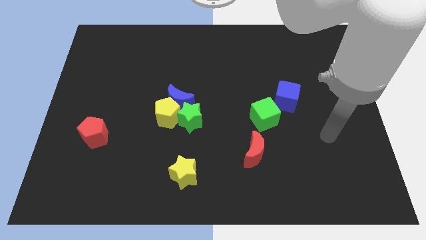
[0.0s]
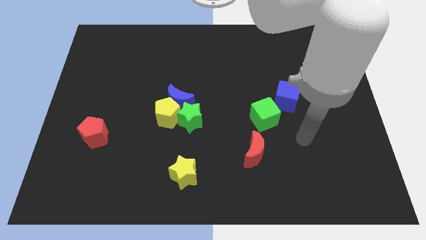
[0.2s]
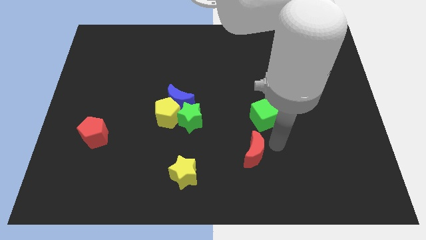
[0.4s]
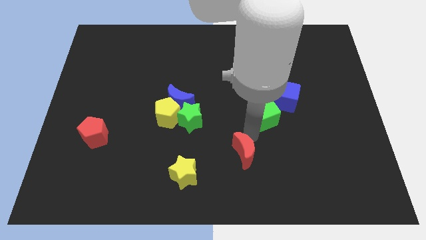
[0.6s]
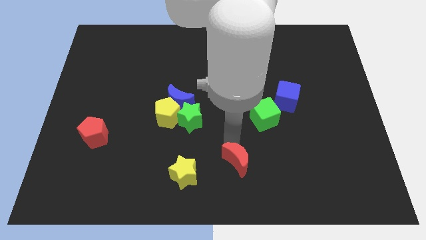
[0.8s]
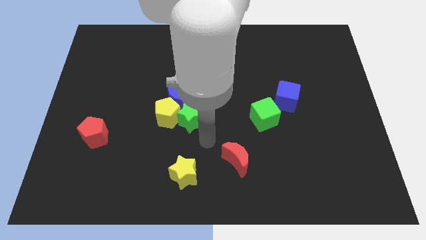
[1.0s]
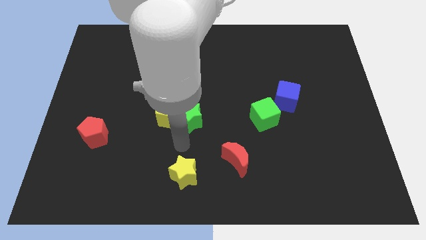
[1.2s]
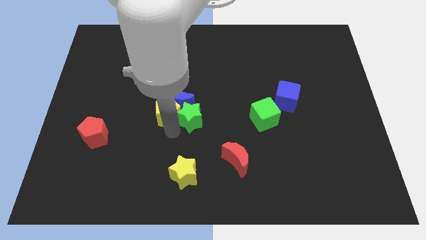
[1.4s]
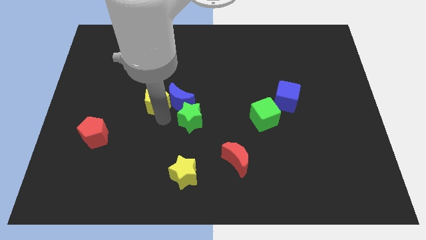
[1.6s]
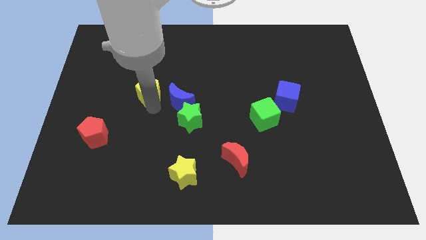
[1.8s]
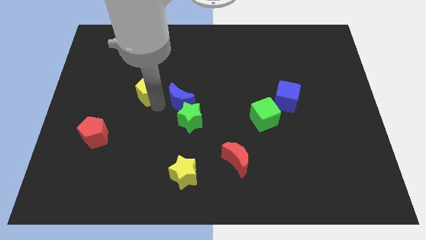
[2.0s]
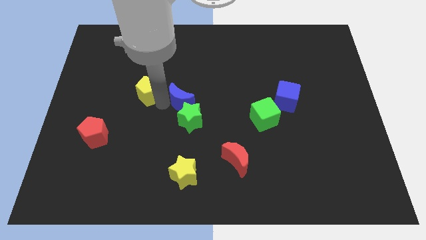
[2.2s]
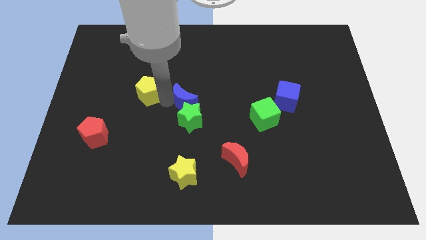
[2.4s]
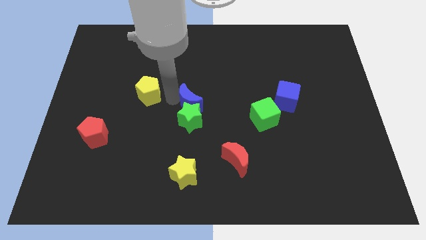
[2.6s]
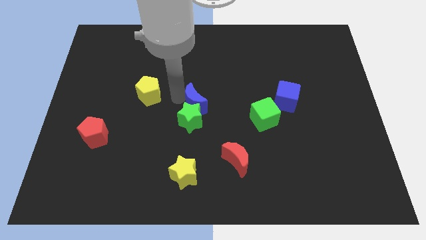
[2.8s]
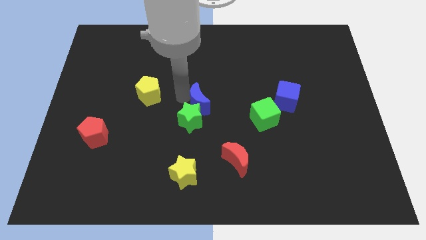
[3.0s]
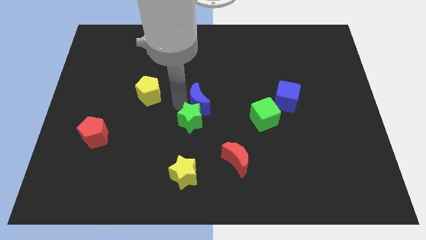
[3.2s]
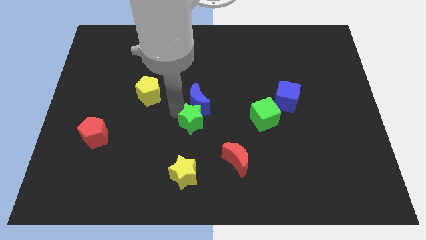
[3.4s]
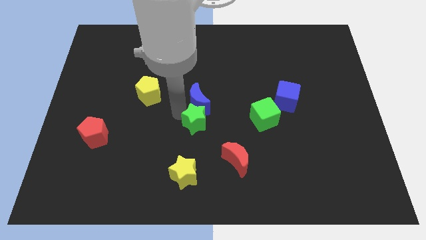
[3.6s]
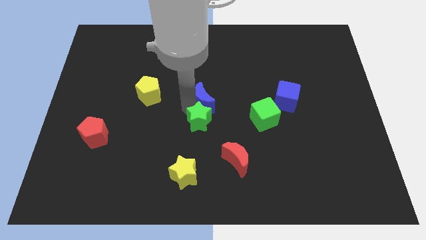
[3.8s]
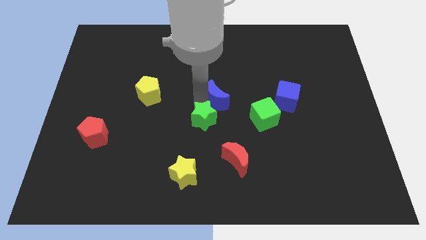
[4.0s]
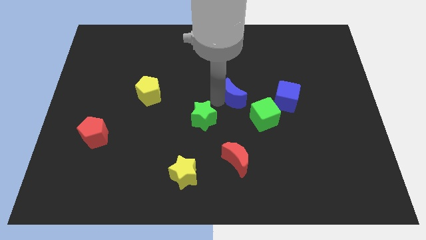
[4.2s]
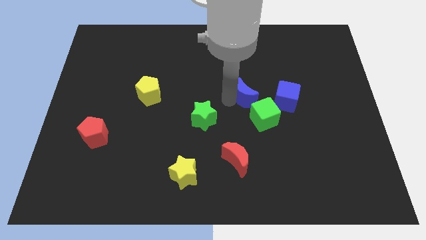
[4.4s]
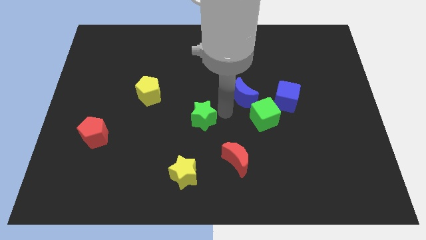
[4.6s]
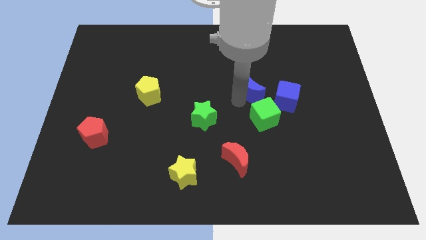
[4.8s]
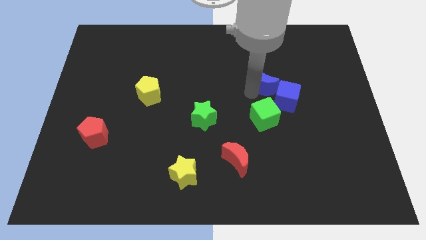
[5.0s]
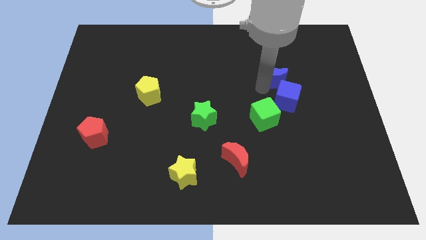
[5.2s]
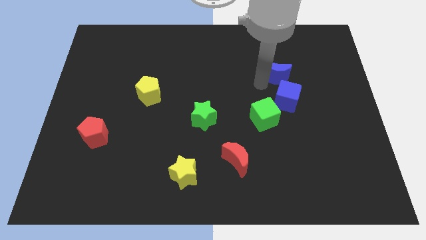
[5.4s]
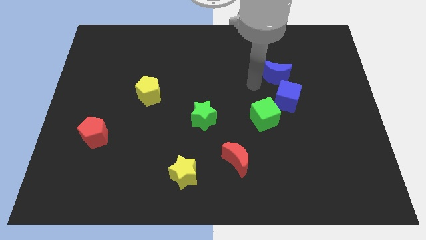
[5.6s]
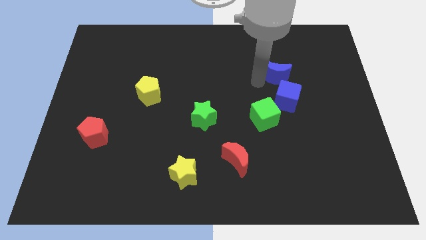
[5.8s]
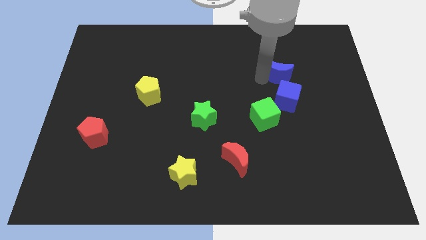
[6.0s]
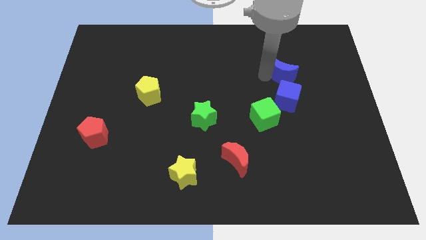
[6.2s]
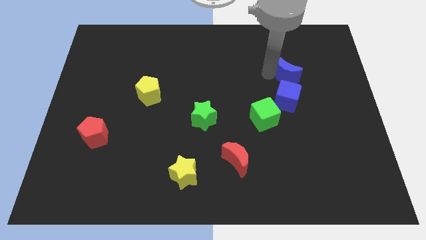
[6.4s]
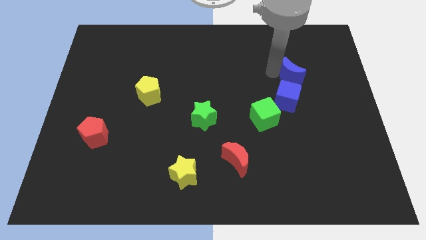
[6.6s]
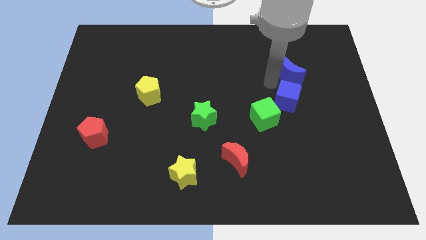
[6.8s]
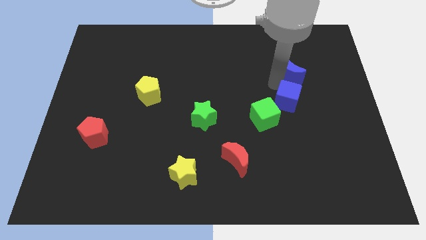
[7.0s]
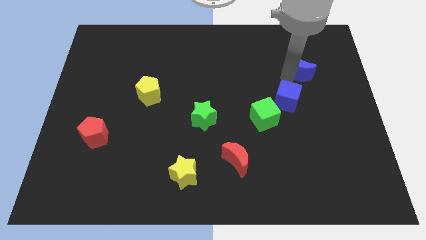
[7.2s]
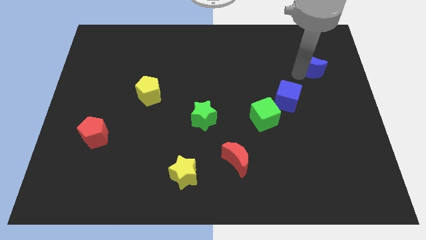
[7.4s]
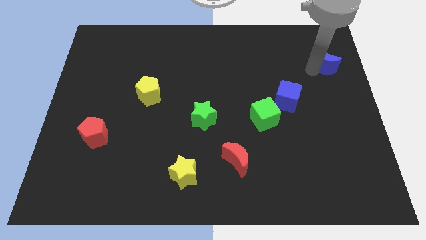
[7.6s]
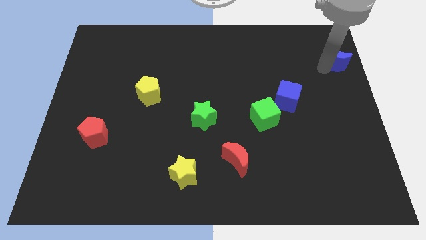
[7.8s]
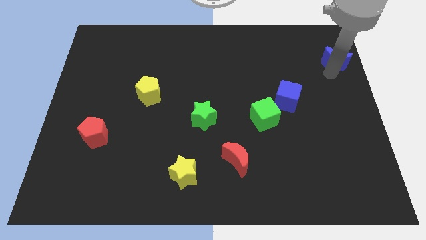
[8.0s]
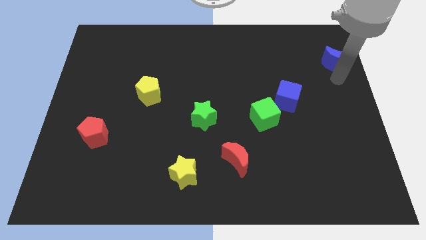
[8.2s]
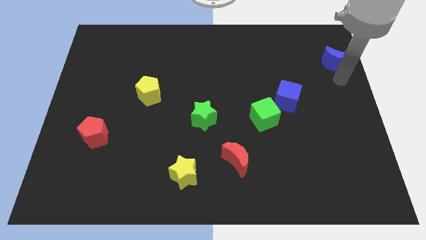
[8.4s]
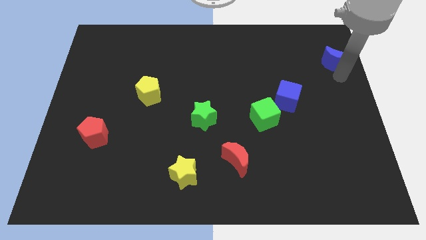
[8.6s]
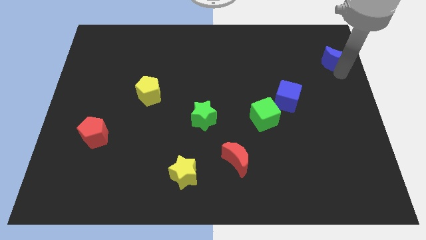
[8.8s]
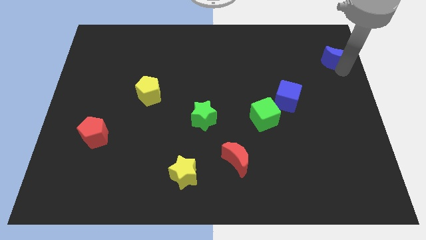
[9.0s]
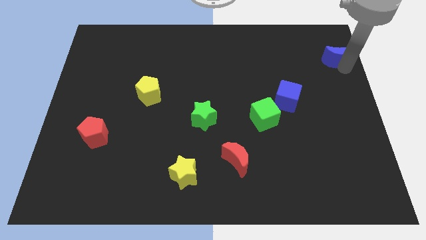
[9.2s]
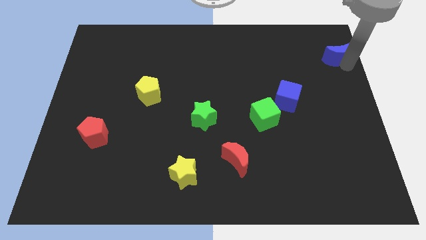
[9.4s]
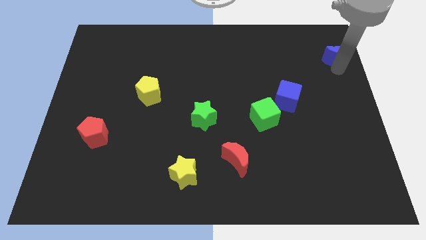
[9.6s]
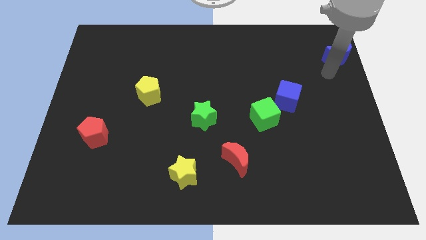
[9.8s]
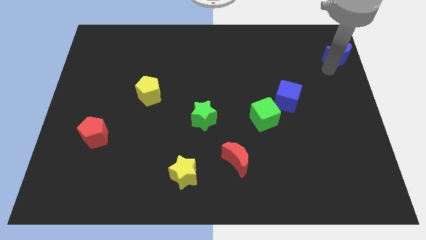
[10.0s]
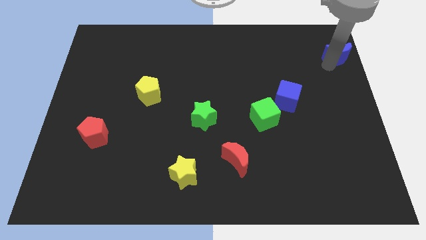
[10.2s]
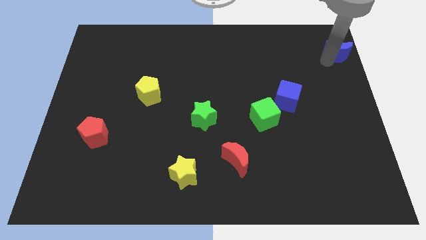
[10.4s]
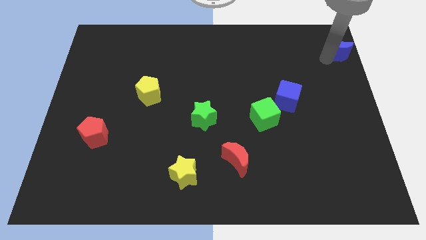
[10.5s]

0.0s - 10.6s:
put the blue moon to the top right corner

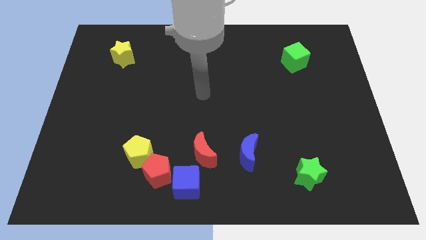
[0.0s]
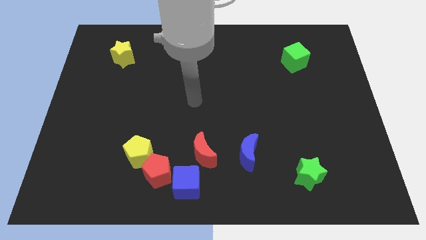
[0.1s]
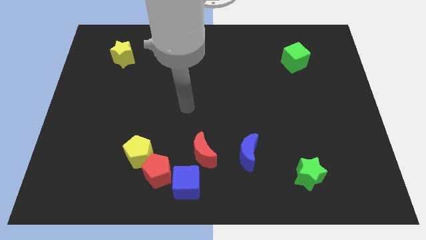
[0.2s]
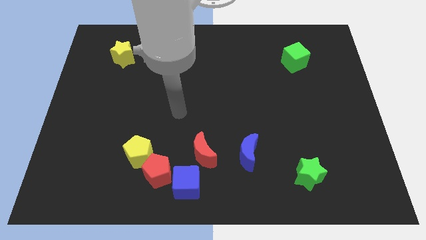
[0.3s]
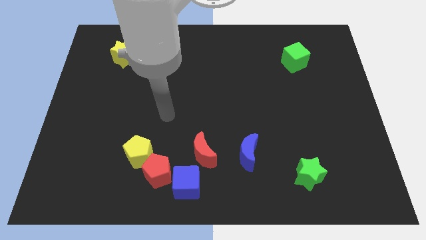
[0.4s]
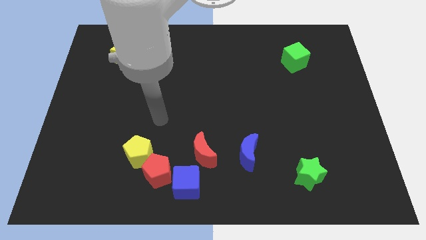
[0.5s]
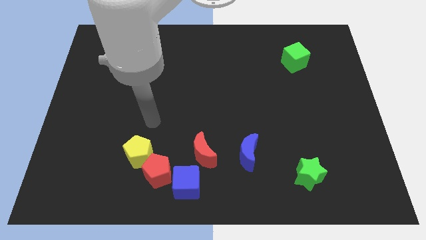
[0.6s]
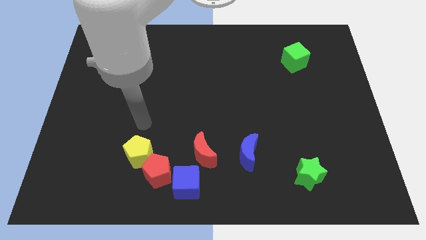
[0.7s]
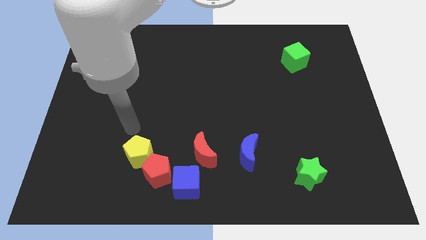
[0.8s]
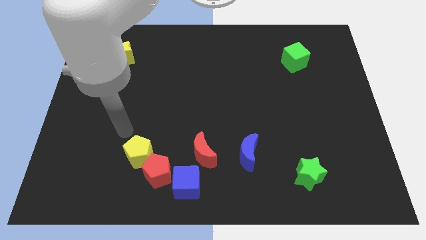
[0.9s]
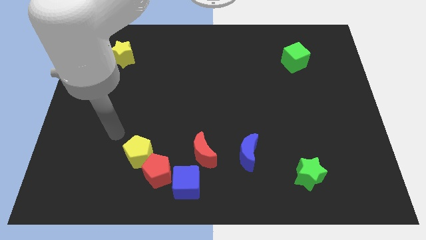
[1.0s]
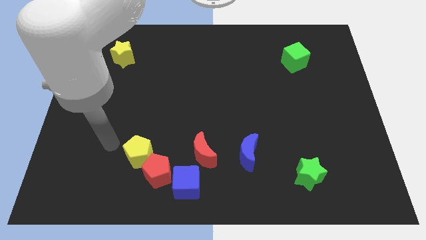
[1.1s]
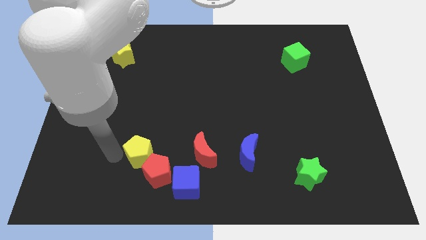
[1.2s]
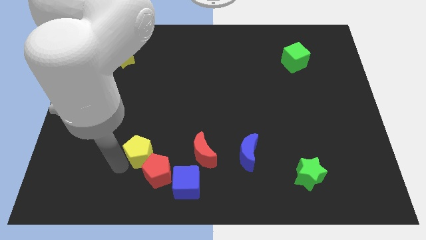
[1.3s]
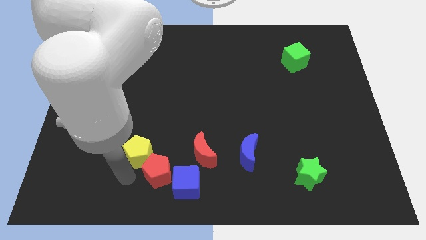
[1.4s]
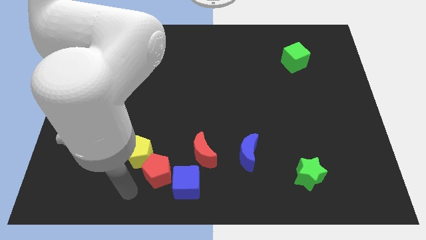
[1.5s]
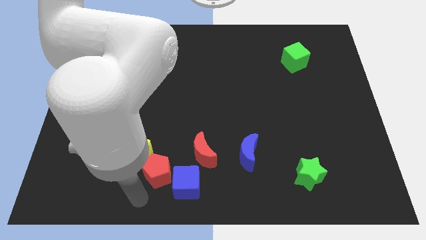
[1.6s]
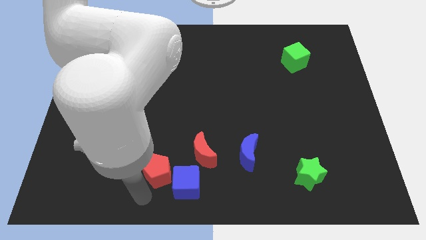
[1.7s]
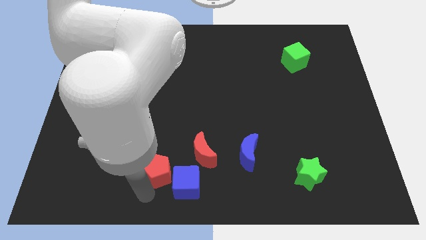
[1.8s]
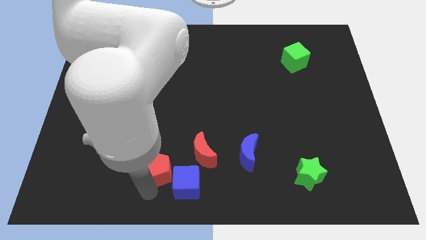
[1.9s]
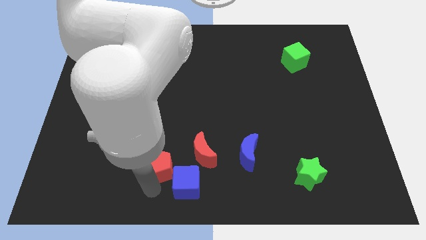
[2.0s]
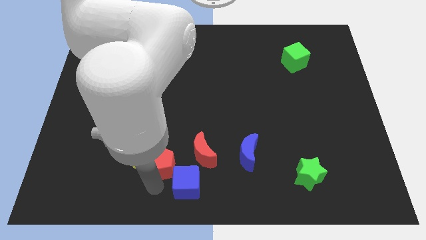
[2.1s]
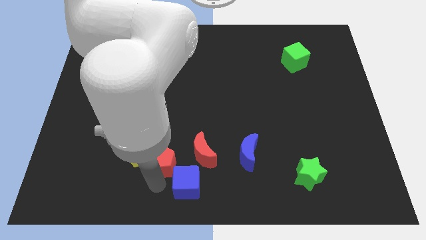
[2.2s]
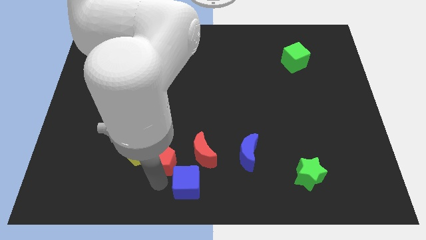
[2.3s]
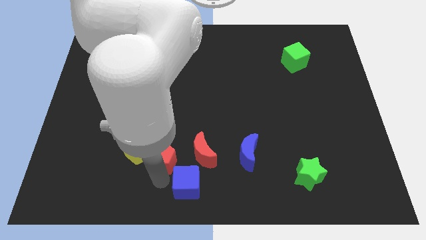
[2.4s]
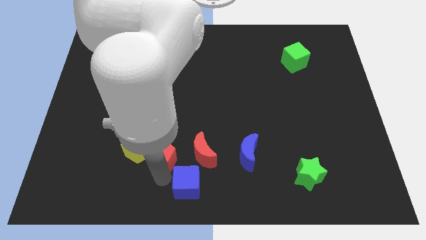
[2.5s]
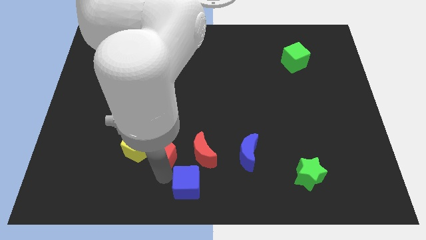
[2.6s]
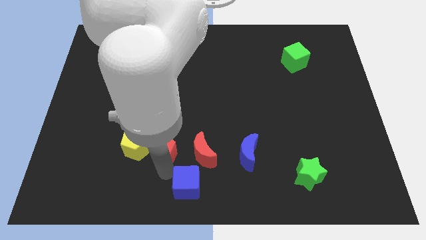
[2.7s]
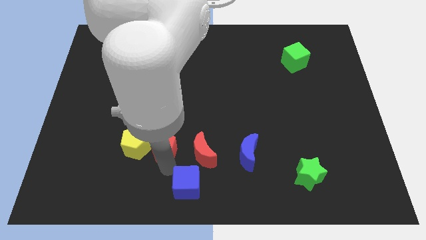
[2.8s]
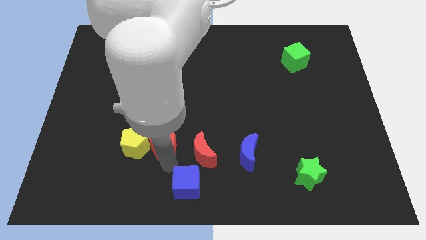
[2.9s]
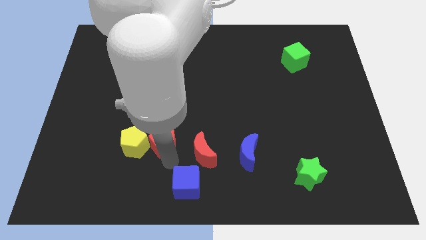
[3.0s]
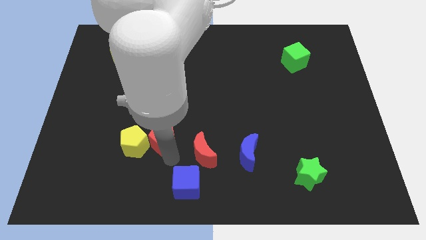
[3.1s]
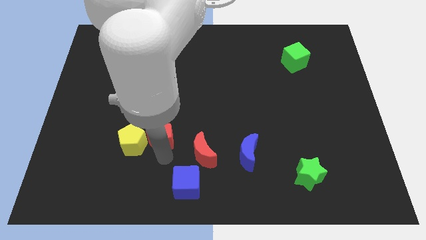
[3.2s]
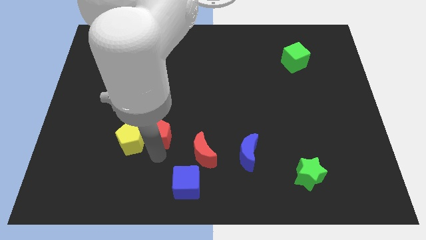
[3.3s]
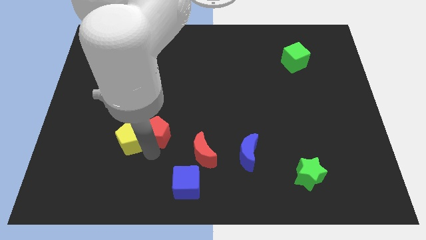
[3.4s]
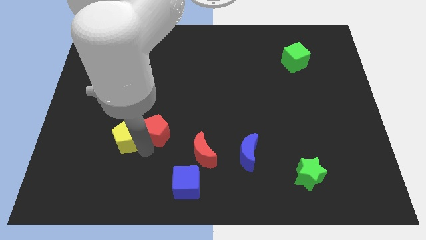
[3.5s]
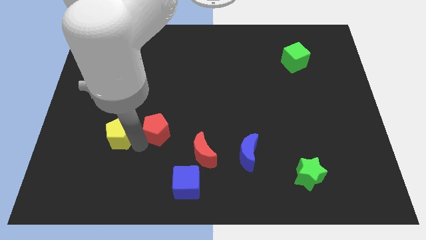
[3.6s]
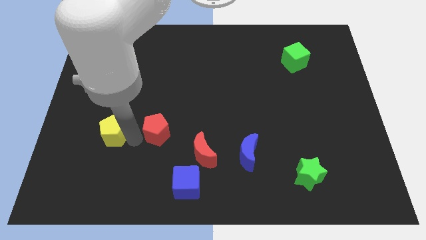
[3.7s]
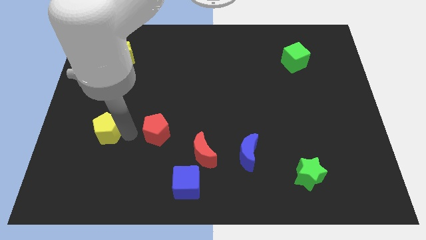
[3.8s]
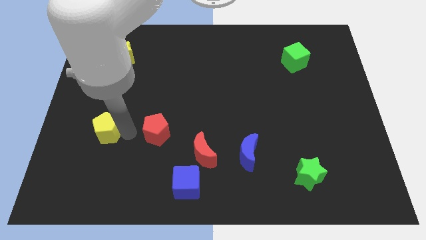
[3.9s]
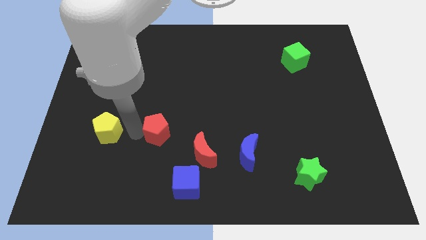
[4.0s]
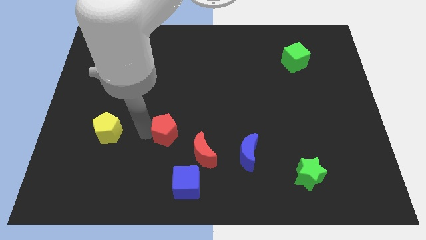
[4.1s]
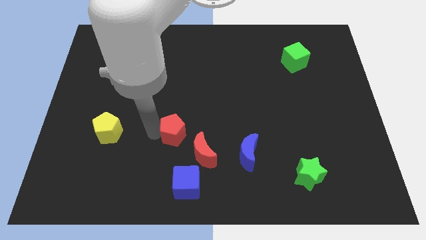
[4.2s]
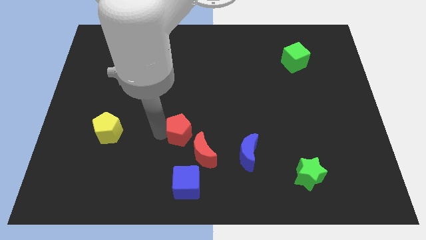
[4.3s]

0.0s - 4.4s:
move the red pentagon to the middle of the board
